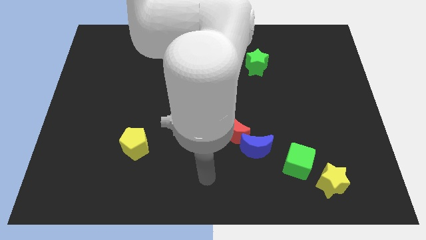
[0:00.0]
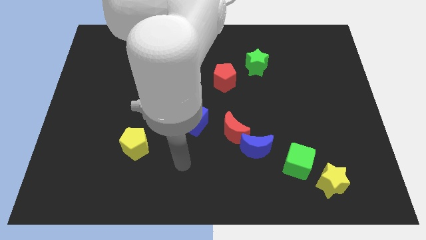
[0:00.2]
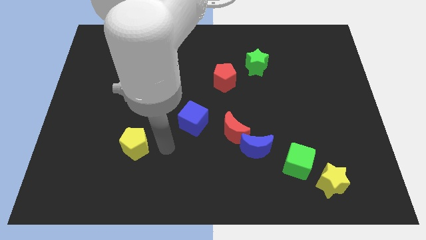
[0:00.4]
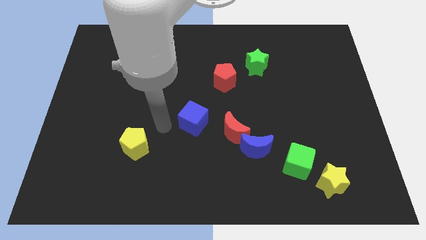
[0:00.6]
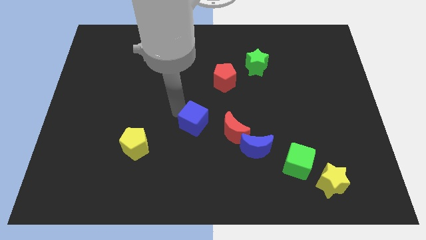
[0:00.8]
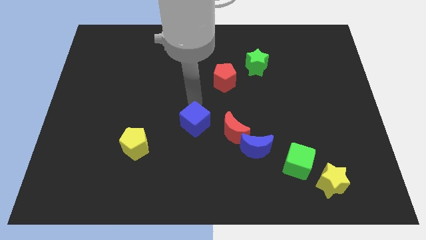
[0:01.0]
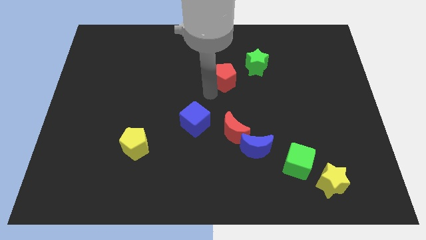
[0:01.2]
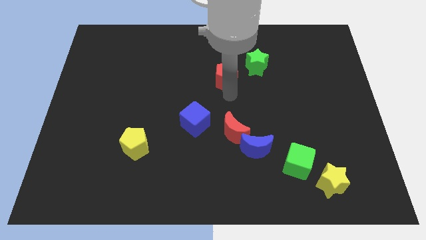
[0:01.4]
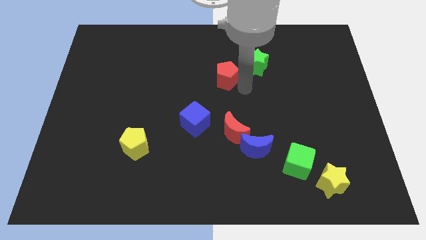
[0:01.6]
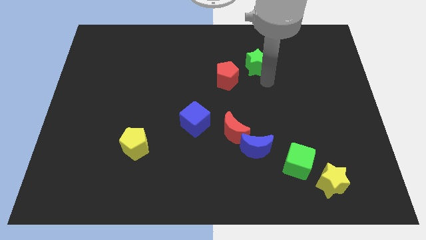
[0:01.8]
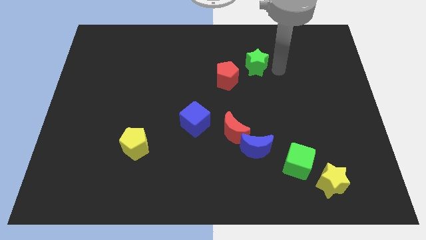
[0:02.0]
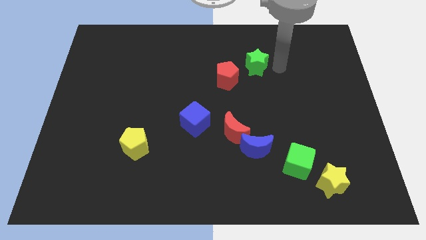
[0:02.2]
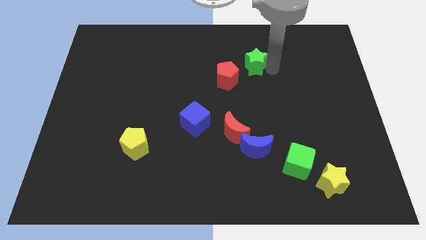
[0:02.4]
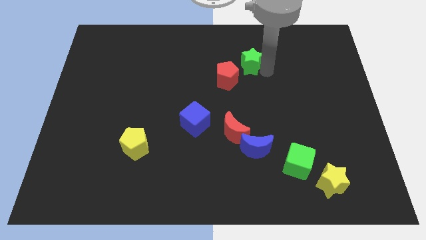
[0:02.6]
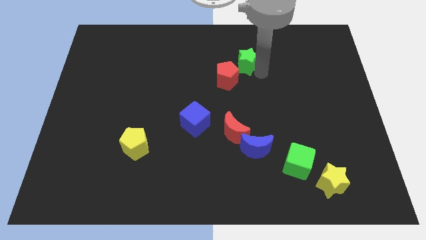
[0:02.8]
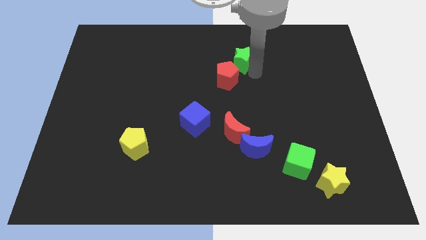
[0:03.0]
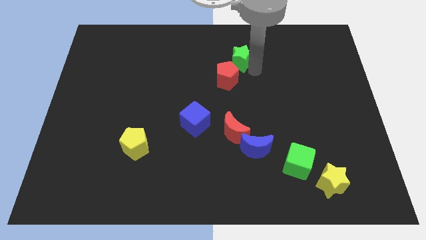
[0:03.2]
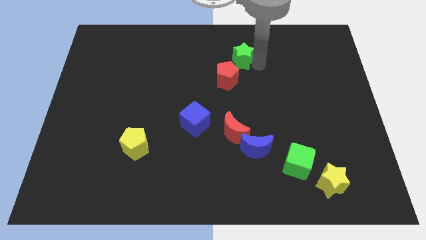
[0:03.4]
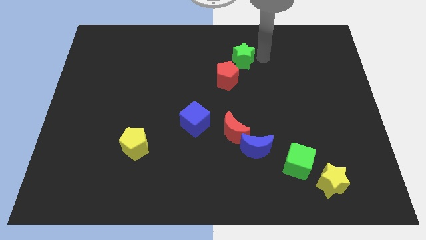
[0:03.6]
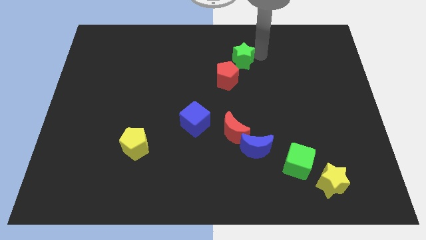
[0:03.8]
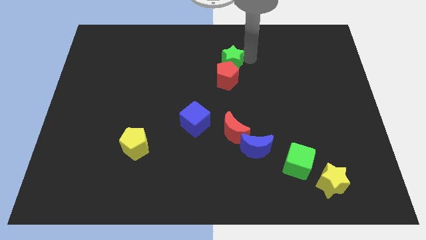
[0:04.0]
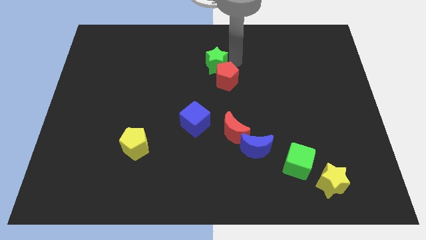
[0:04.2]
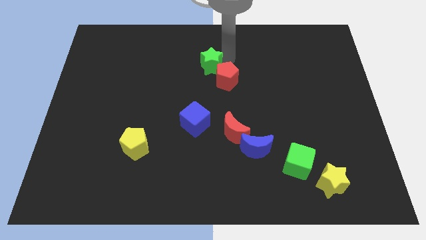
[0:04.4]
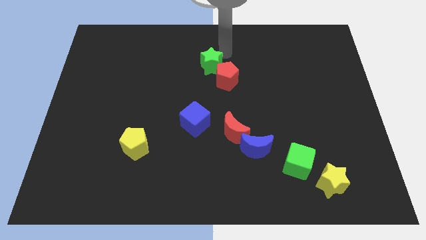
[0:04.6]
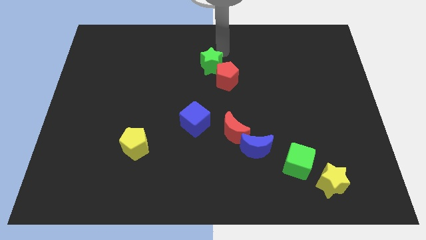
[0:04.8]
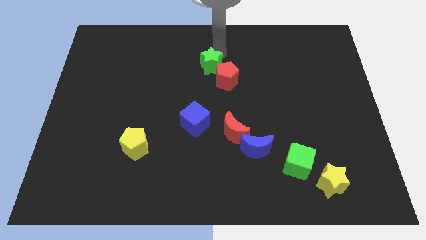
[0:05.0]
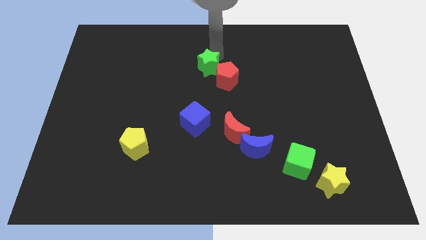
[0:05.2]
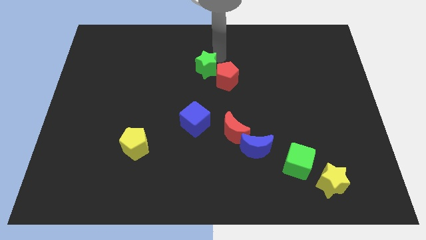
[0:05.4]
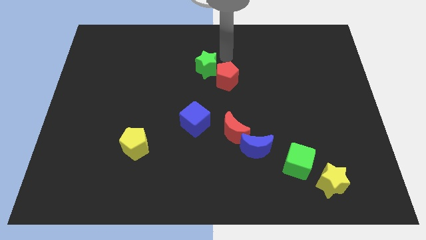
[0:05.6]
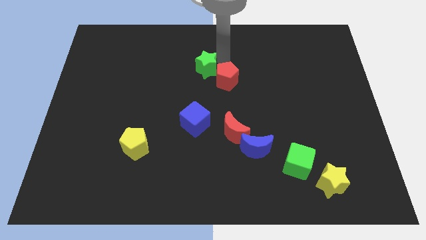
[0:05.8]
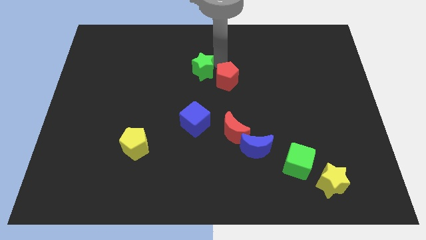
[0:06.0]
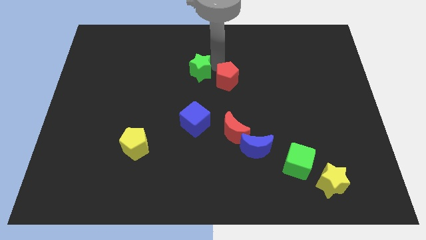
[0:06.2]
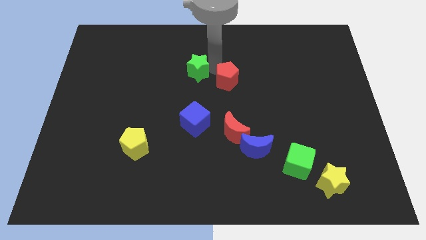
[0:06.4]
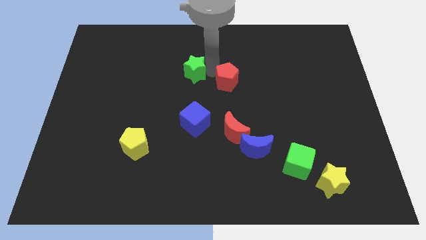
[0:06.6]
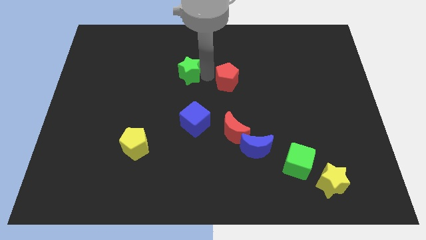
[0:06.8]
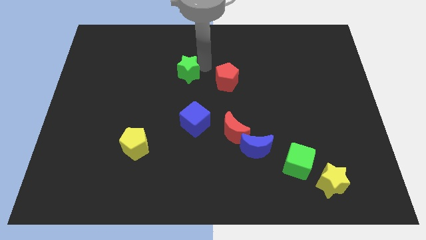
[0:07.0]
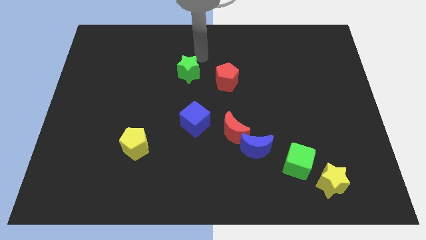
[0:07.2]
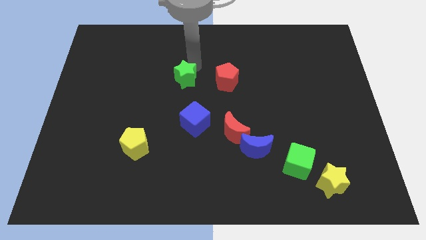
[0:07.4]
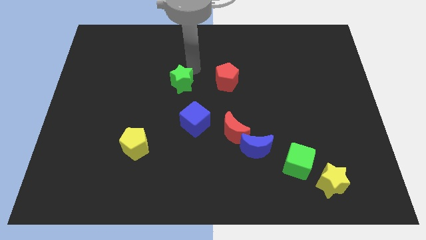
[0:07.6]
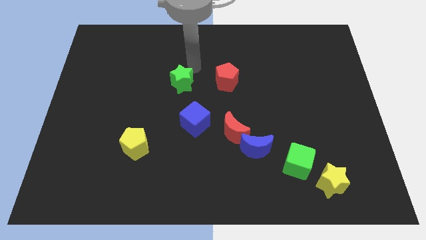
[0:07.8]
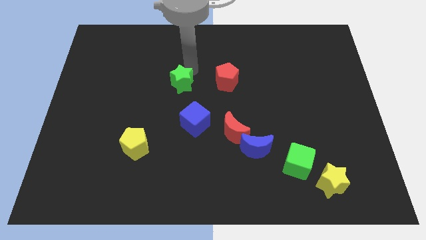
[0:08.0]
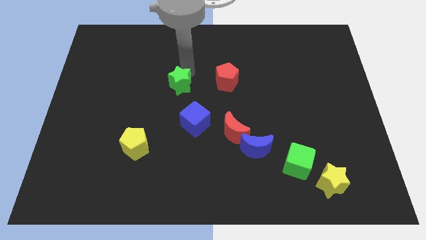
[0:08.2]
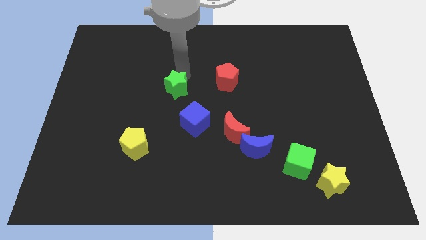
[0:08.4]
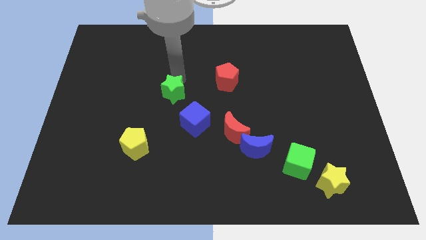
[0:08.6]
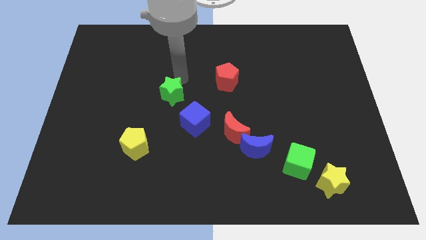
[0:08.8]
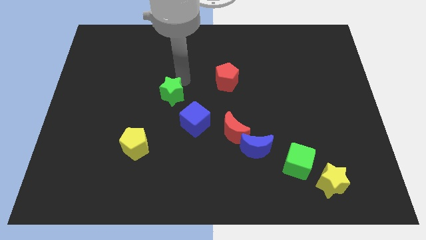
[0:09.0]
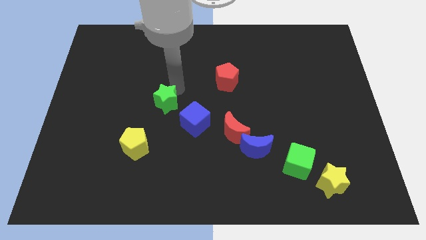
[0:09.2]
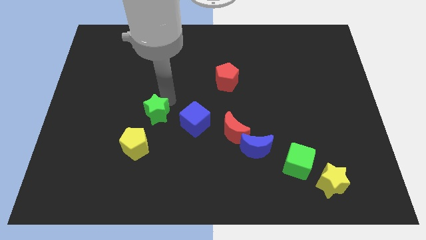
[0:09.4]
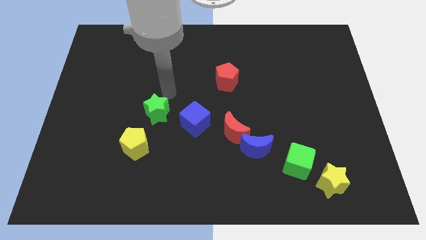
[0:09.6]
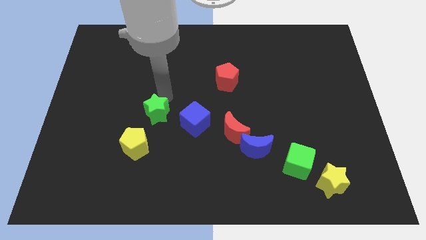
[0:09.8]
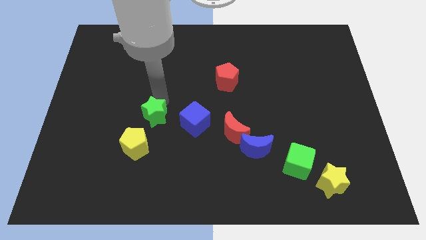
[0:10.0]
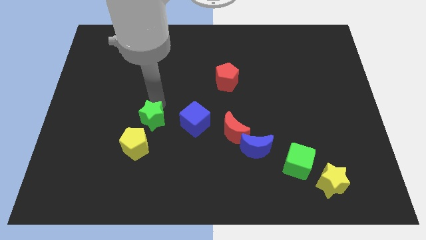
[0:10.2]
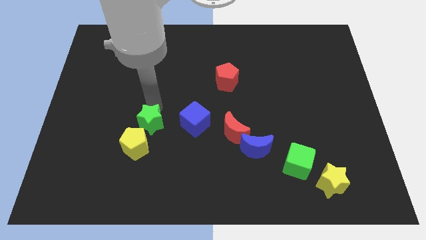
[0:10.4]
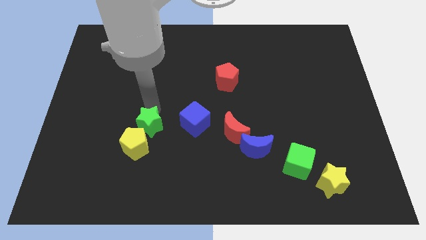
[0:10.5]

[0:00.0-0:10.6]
push the green star towards the yellow pentagon

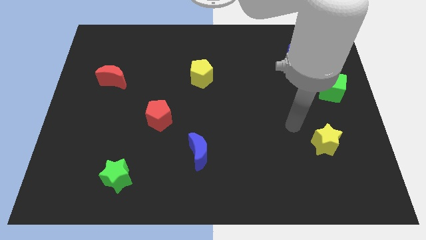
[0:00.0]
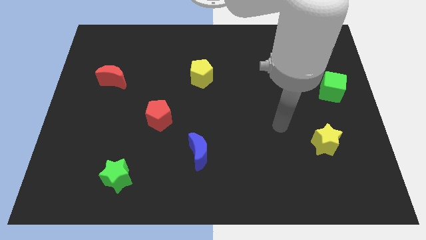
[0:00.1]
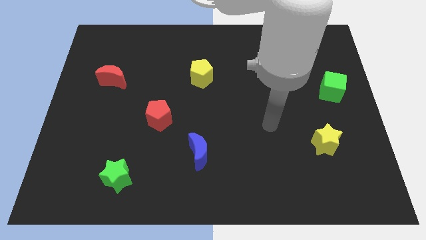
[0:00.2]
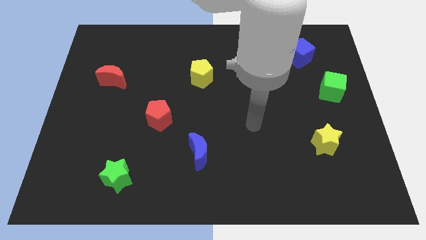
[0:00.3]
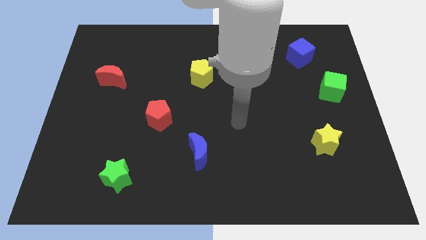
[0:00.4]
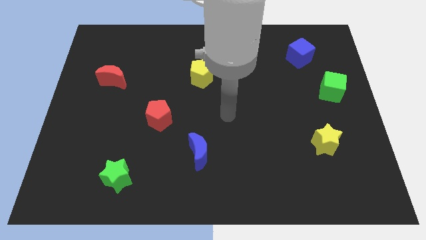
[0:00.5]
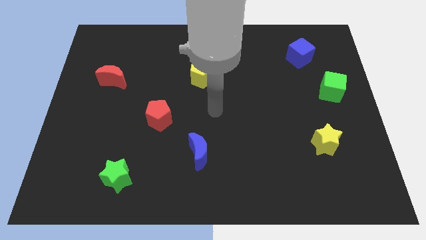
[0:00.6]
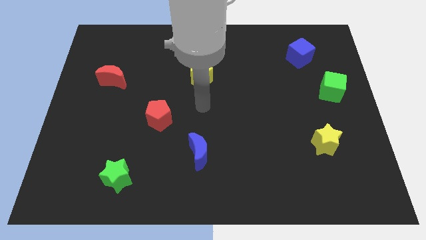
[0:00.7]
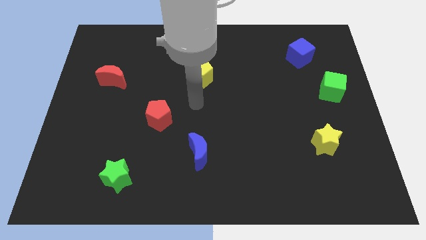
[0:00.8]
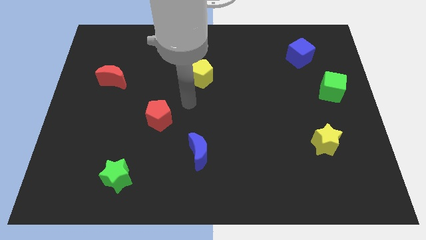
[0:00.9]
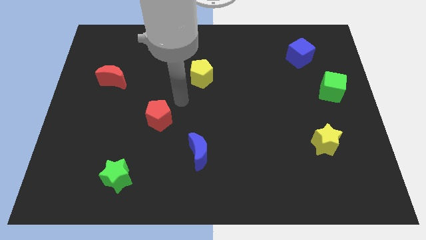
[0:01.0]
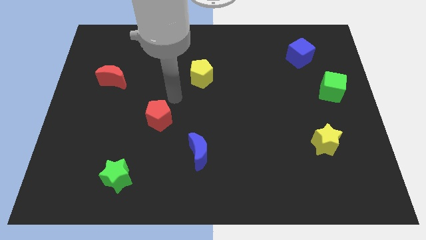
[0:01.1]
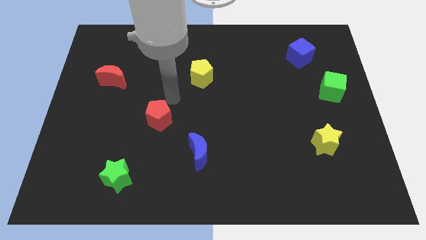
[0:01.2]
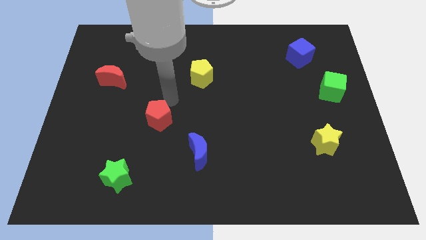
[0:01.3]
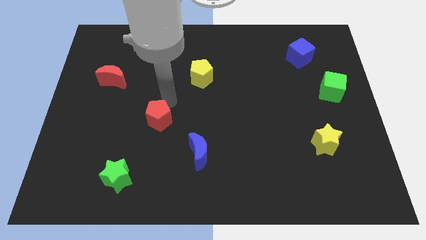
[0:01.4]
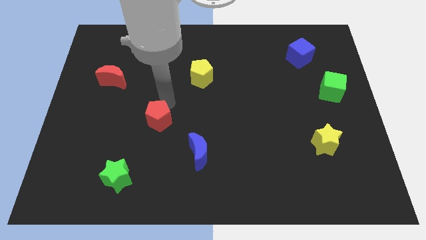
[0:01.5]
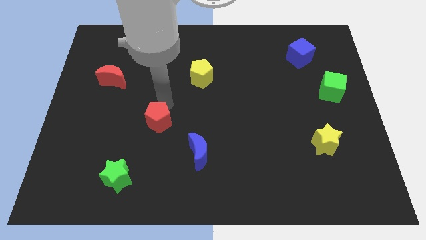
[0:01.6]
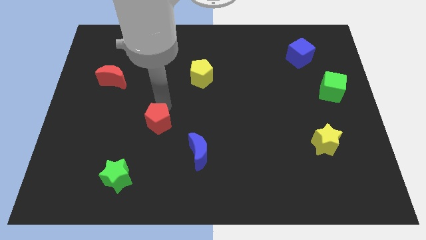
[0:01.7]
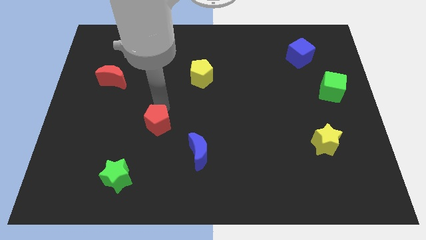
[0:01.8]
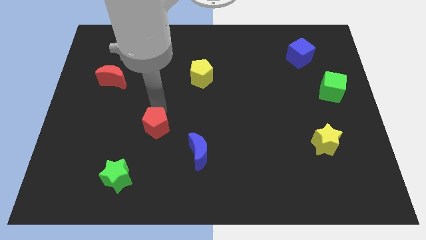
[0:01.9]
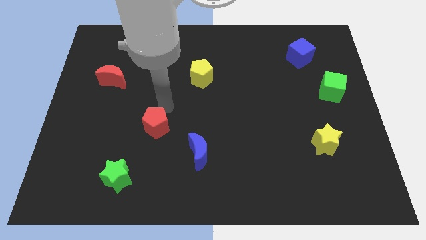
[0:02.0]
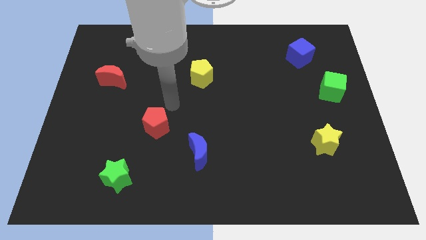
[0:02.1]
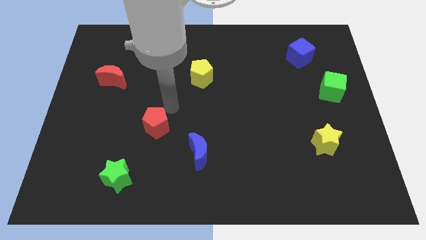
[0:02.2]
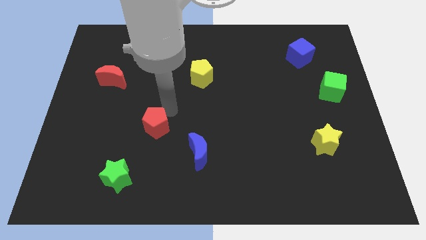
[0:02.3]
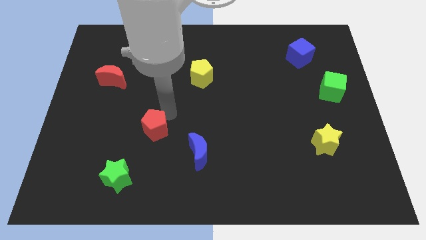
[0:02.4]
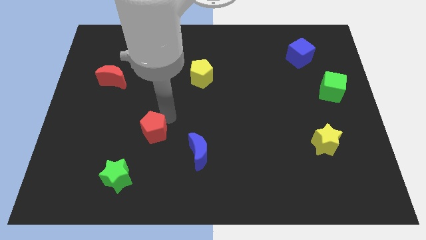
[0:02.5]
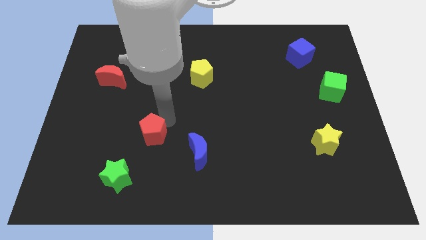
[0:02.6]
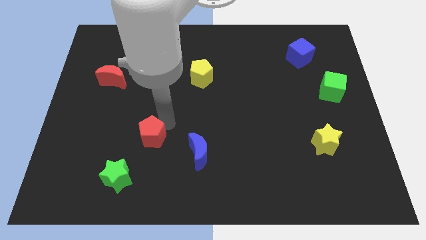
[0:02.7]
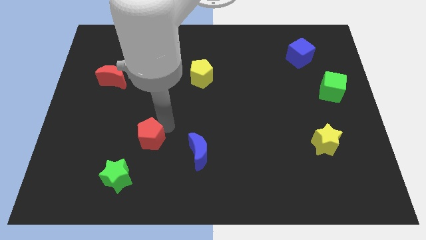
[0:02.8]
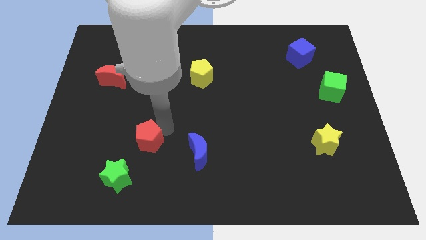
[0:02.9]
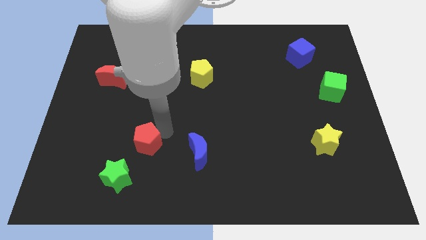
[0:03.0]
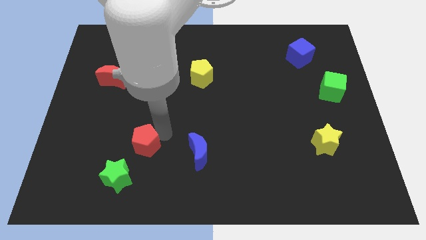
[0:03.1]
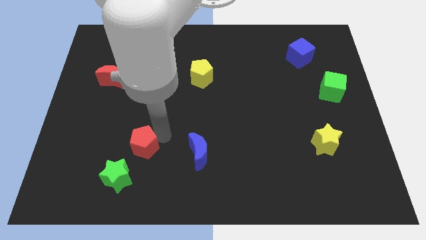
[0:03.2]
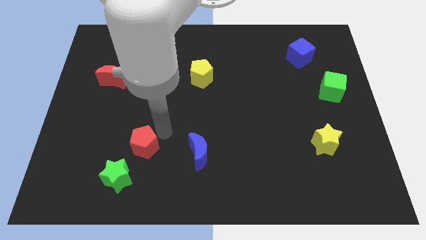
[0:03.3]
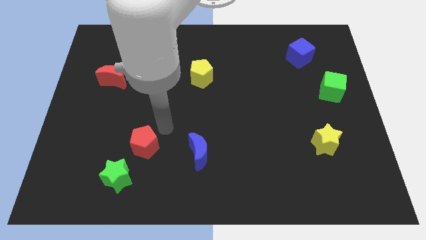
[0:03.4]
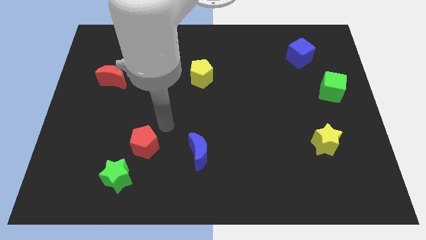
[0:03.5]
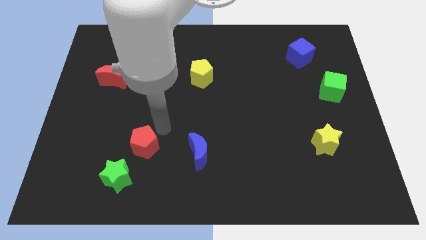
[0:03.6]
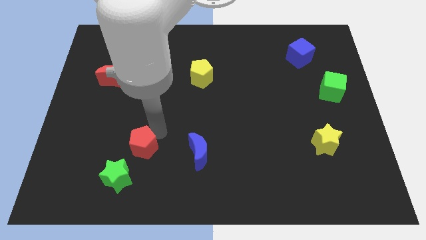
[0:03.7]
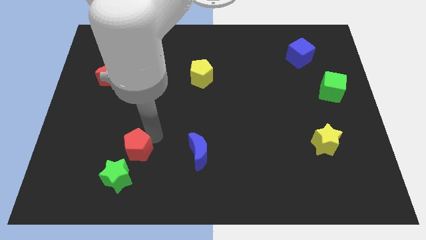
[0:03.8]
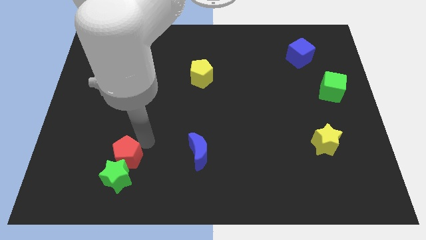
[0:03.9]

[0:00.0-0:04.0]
move the red pentagon towards the green star
